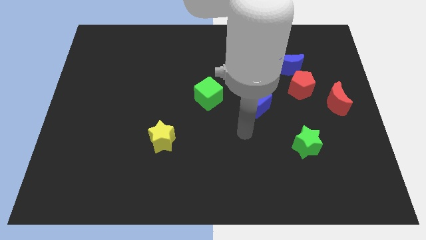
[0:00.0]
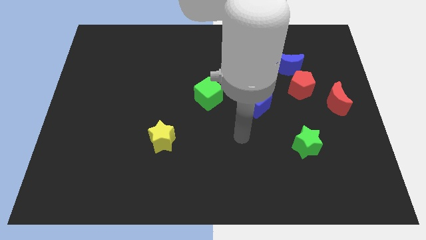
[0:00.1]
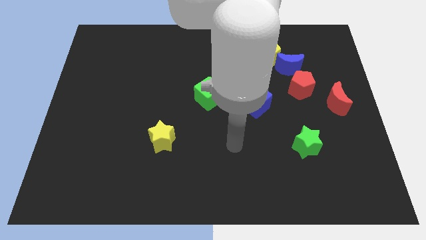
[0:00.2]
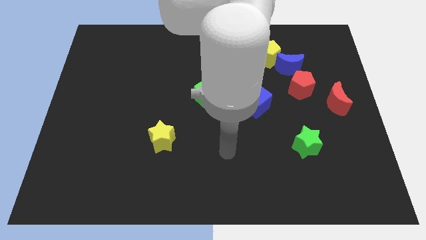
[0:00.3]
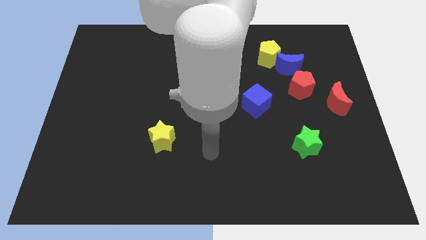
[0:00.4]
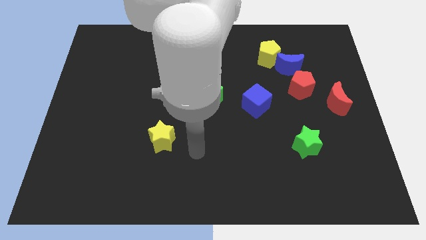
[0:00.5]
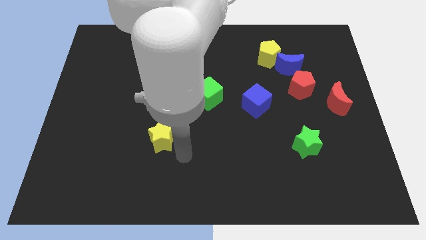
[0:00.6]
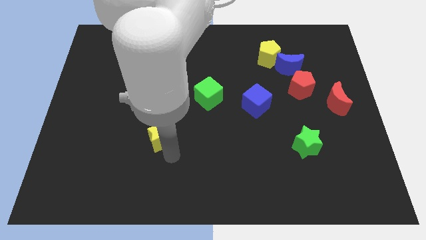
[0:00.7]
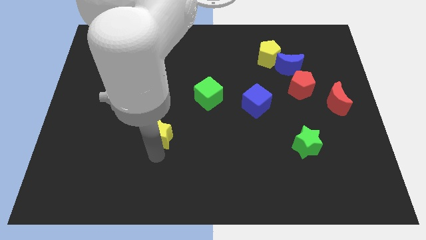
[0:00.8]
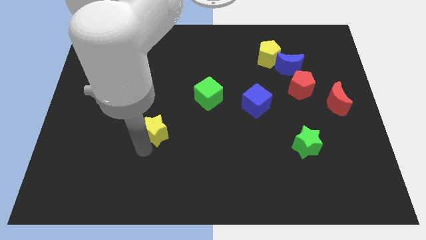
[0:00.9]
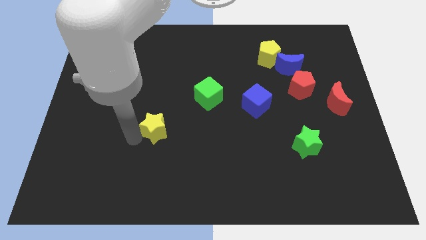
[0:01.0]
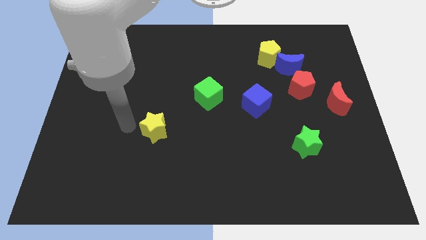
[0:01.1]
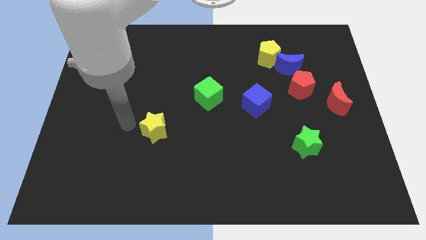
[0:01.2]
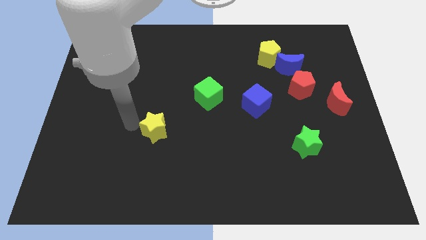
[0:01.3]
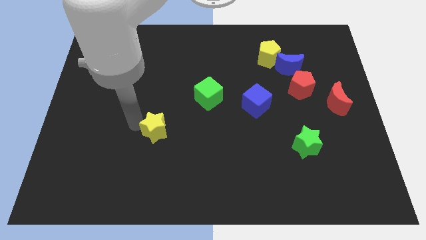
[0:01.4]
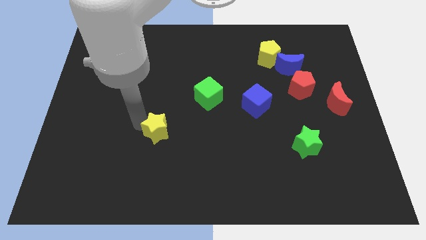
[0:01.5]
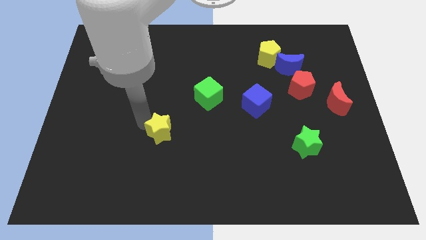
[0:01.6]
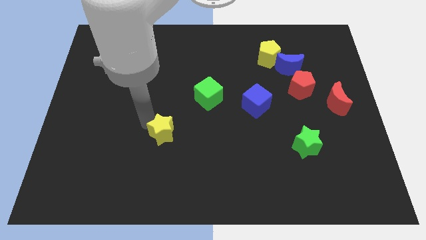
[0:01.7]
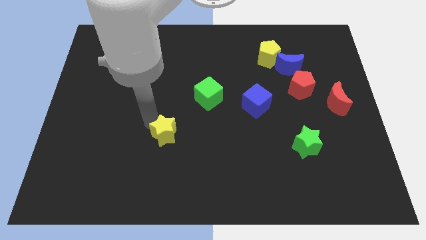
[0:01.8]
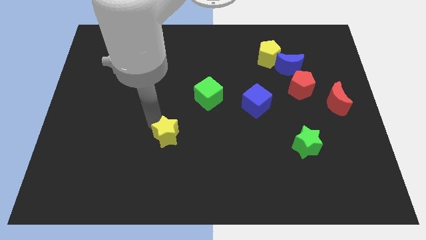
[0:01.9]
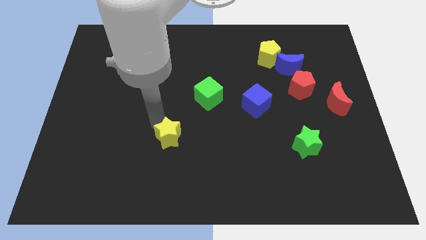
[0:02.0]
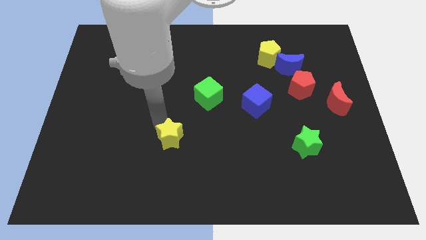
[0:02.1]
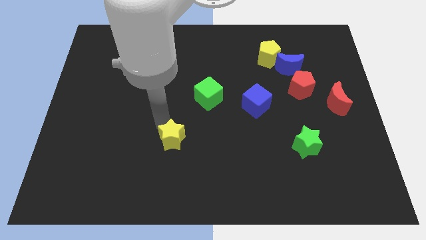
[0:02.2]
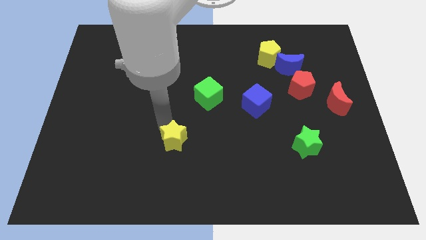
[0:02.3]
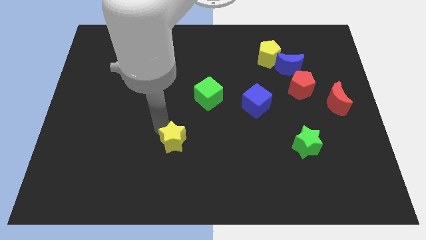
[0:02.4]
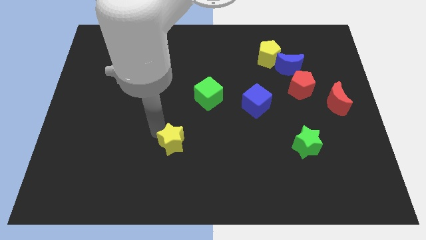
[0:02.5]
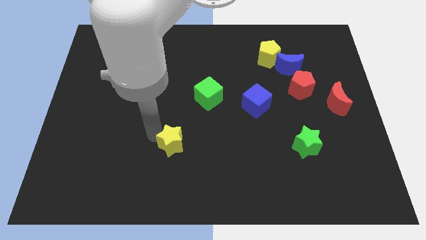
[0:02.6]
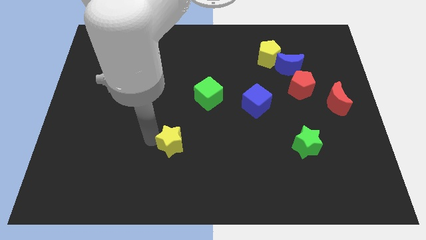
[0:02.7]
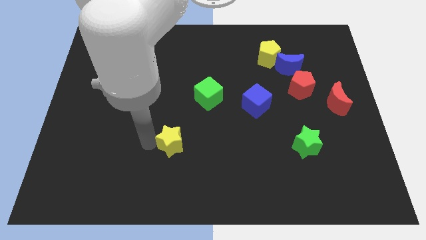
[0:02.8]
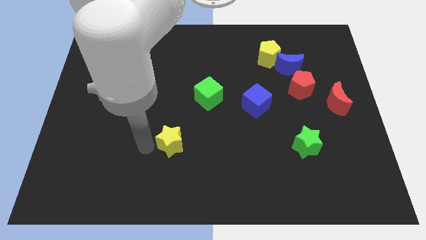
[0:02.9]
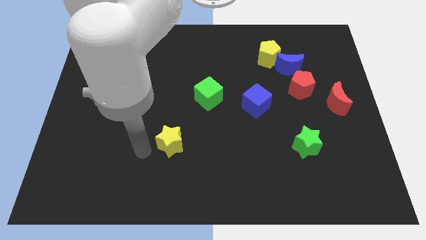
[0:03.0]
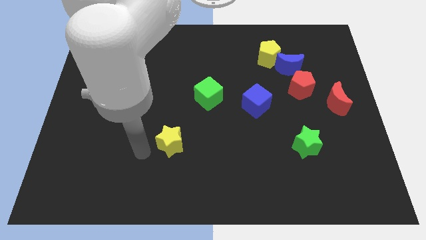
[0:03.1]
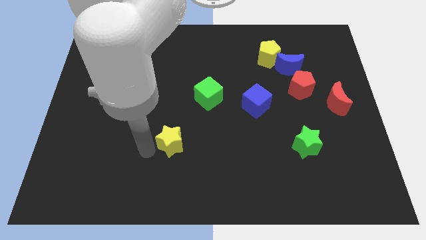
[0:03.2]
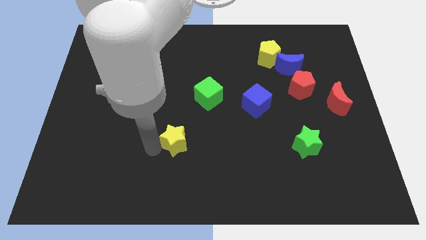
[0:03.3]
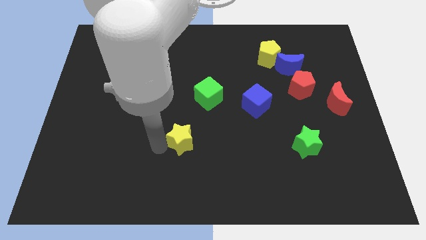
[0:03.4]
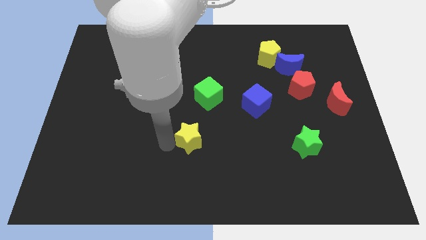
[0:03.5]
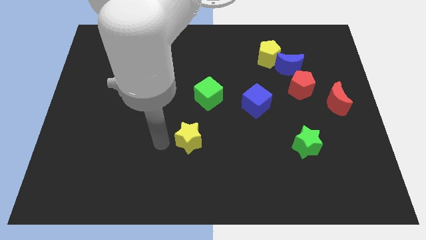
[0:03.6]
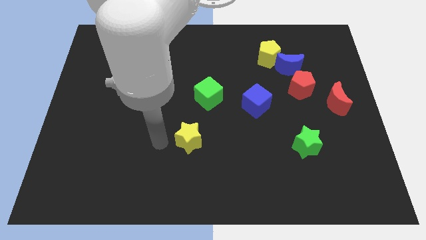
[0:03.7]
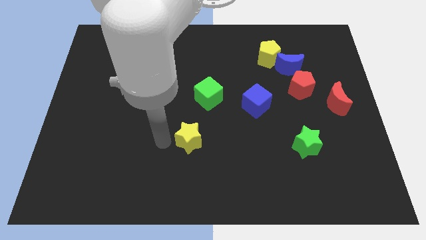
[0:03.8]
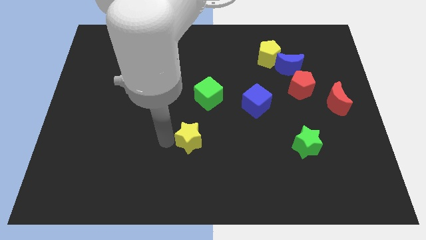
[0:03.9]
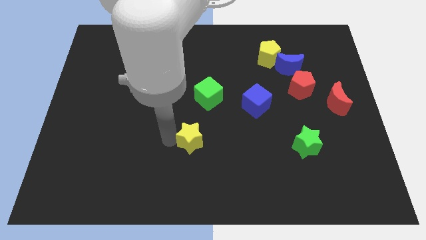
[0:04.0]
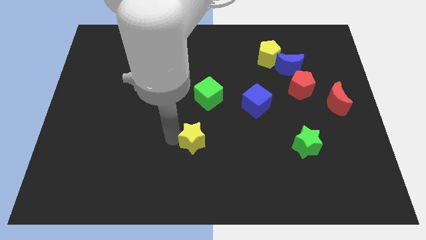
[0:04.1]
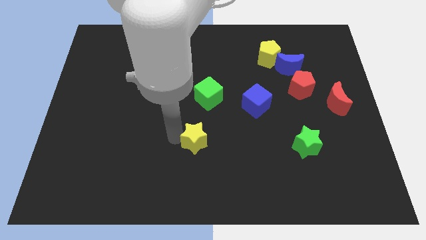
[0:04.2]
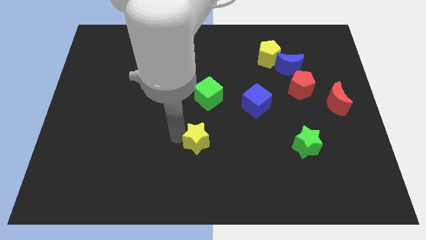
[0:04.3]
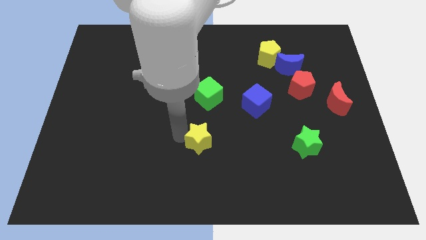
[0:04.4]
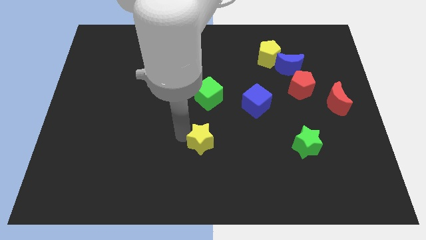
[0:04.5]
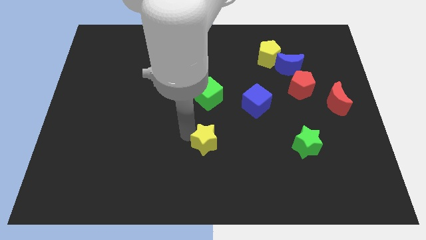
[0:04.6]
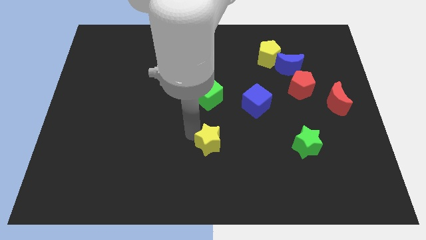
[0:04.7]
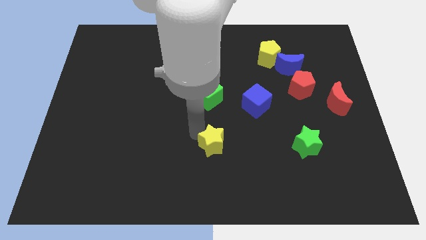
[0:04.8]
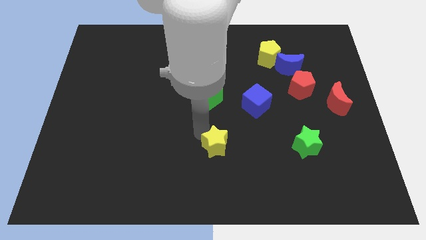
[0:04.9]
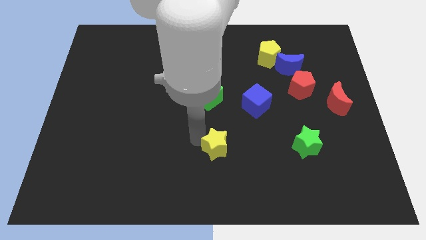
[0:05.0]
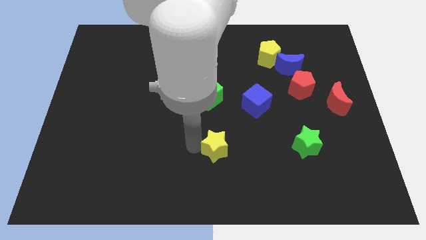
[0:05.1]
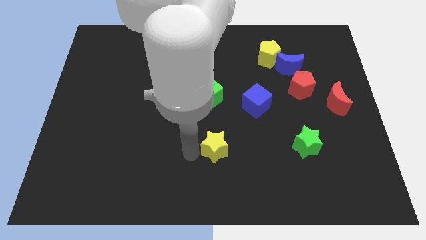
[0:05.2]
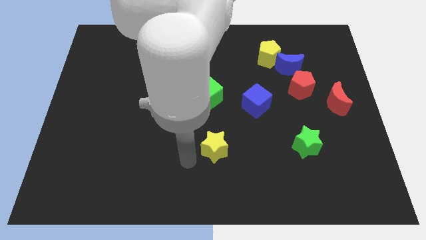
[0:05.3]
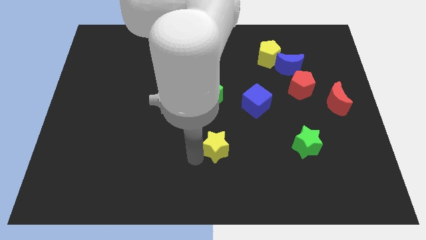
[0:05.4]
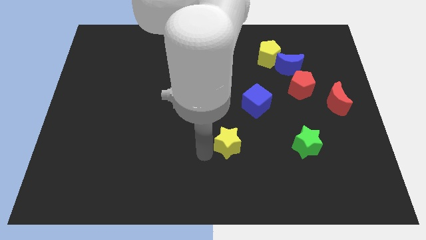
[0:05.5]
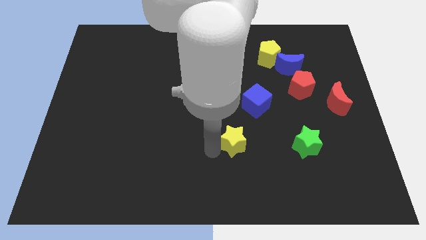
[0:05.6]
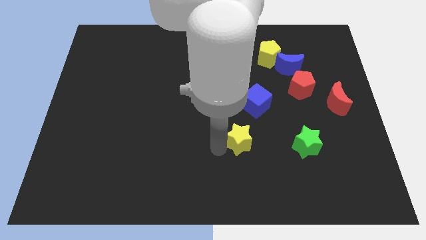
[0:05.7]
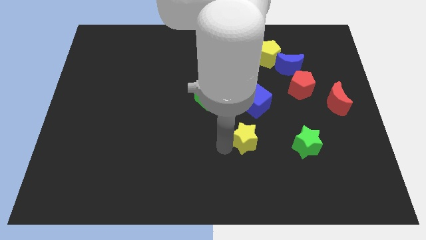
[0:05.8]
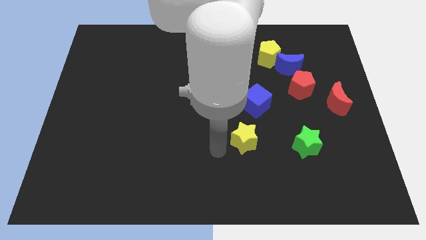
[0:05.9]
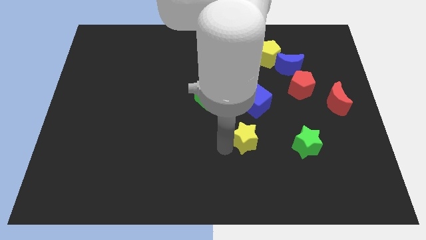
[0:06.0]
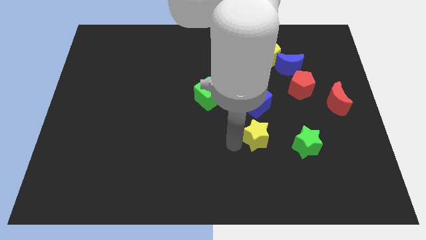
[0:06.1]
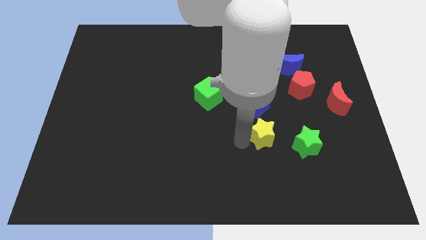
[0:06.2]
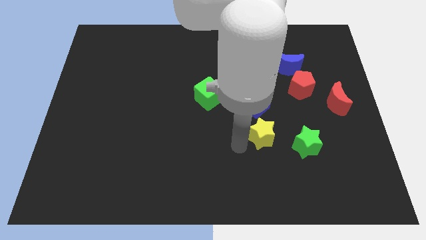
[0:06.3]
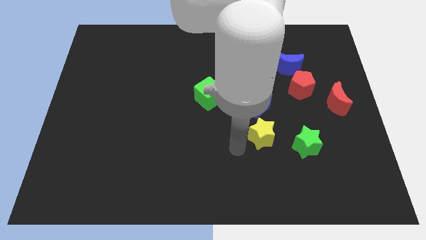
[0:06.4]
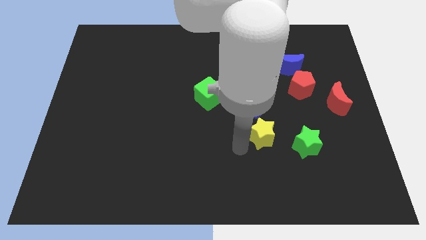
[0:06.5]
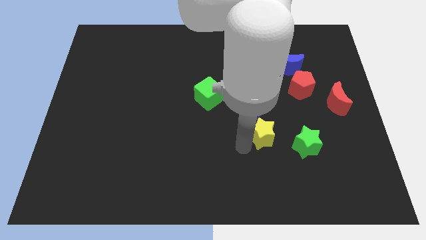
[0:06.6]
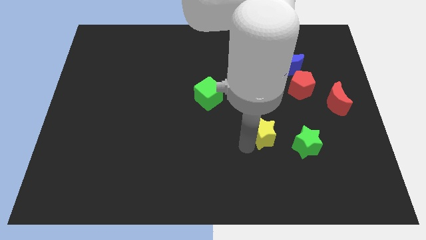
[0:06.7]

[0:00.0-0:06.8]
put the yellow star diagonally up and to the left of the green star
